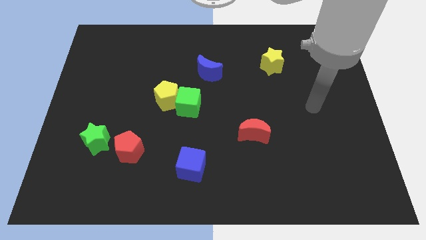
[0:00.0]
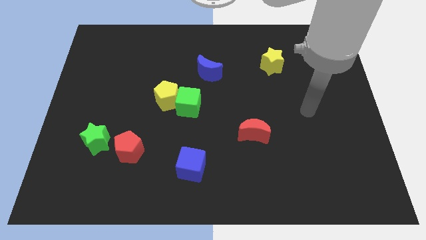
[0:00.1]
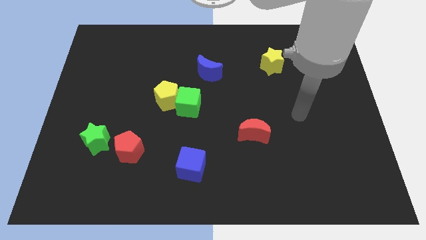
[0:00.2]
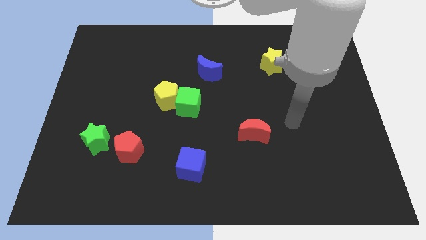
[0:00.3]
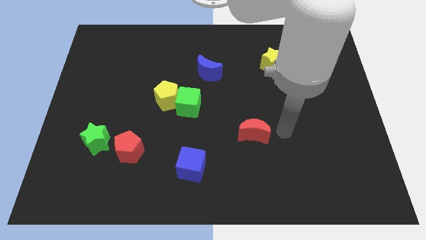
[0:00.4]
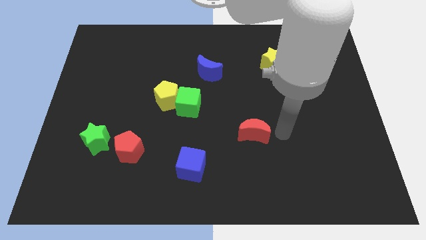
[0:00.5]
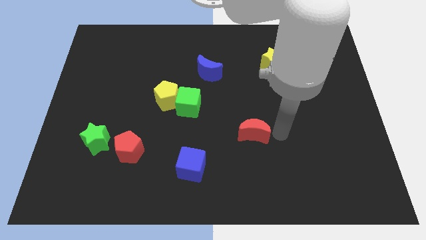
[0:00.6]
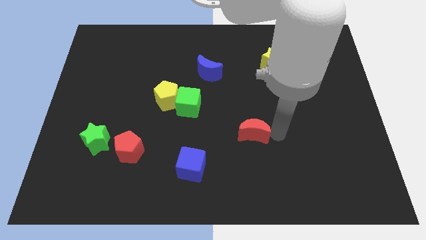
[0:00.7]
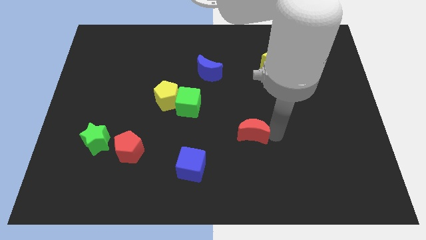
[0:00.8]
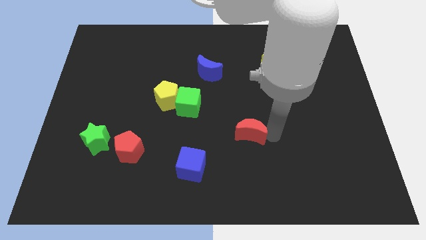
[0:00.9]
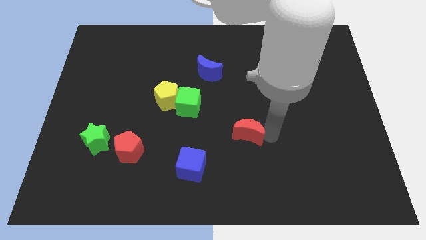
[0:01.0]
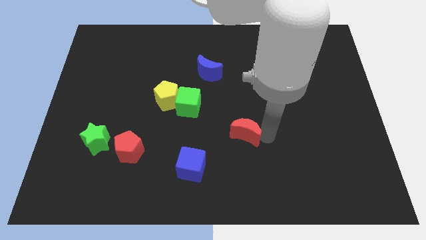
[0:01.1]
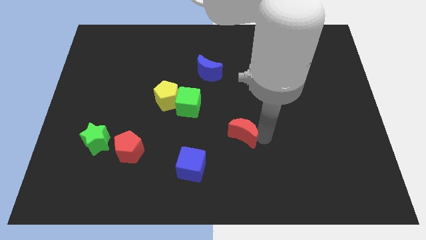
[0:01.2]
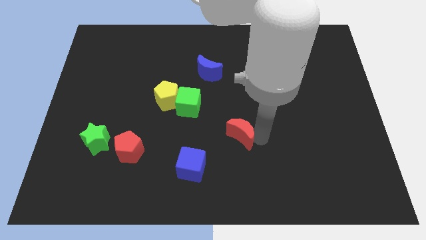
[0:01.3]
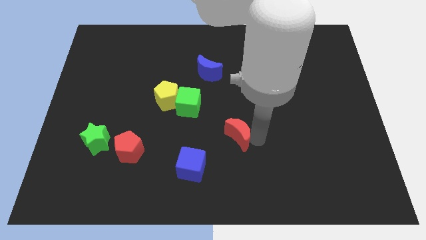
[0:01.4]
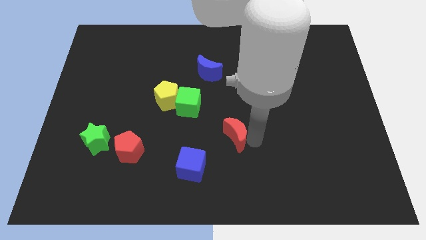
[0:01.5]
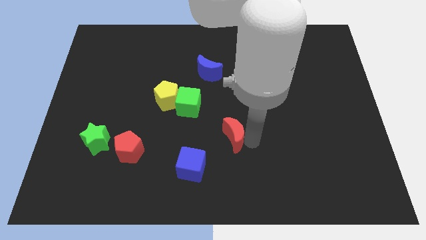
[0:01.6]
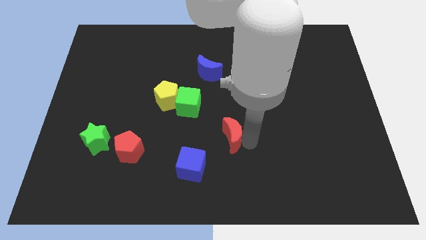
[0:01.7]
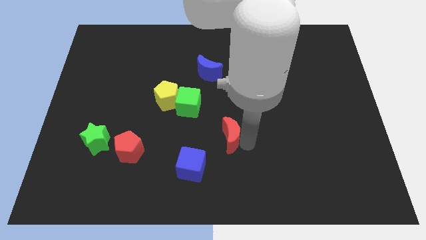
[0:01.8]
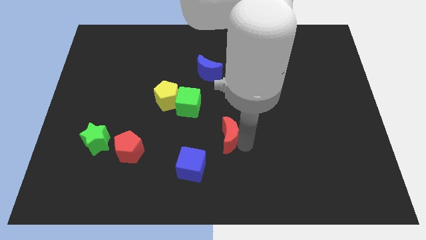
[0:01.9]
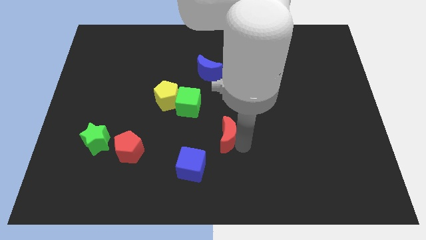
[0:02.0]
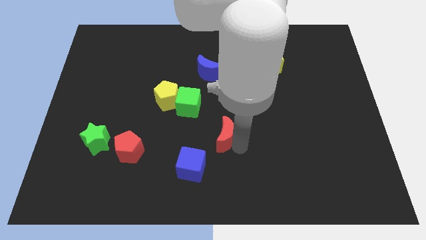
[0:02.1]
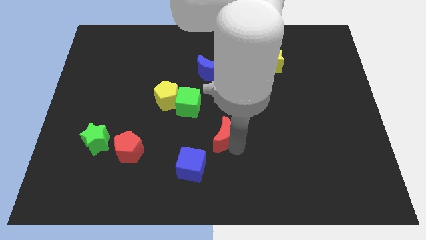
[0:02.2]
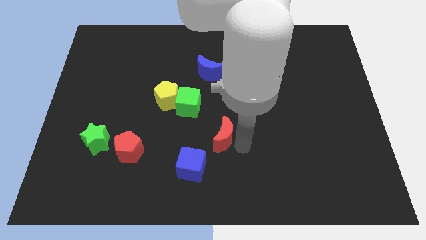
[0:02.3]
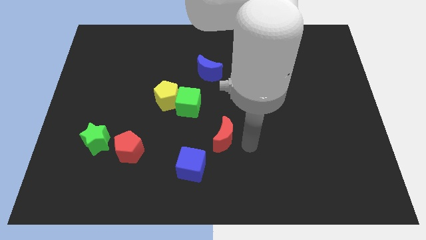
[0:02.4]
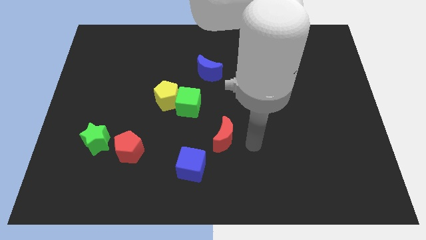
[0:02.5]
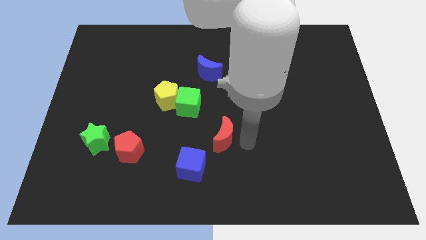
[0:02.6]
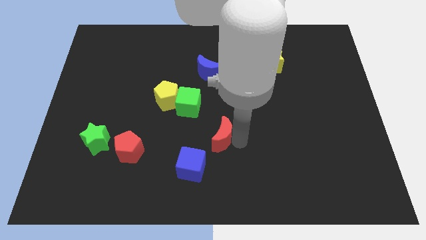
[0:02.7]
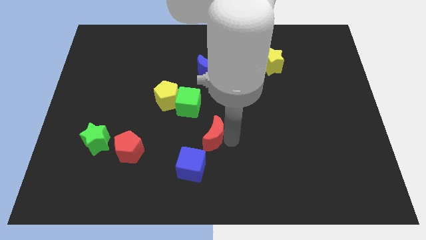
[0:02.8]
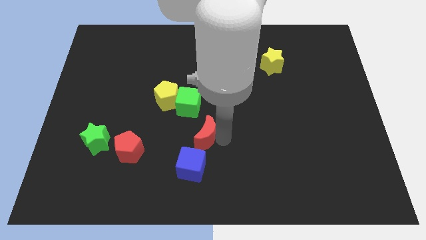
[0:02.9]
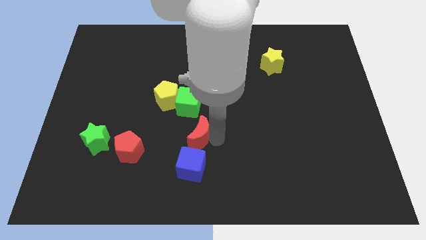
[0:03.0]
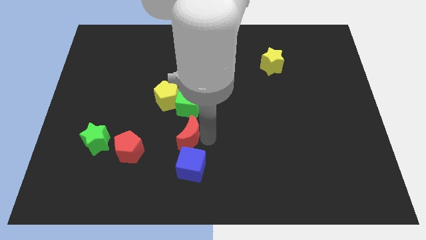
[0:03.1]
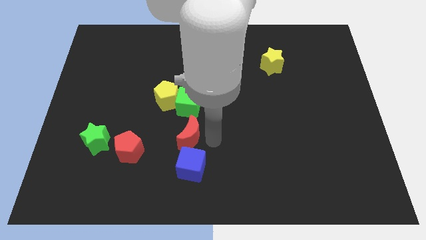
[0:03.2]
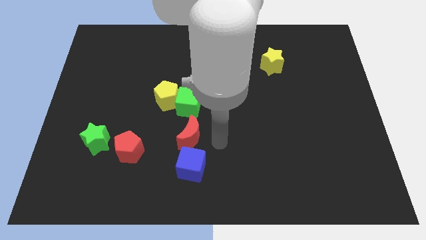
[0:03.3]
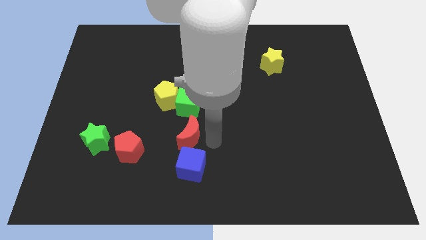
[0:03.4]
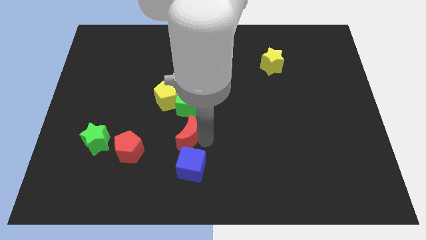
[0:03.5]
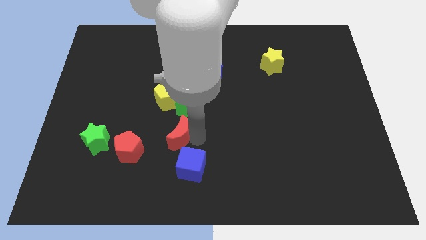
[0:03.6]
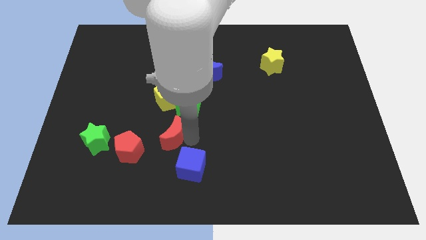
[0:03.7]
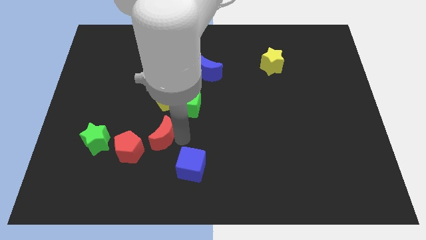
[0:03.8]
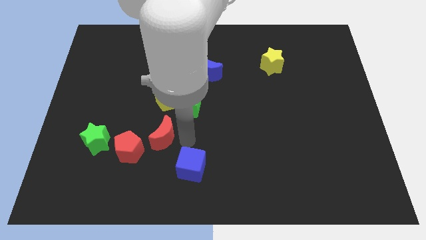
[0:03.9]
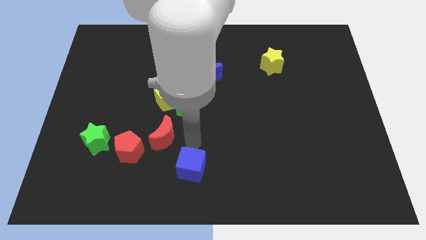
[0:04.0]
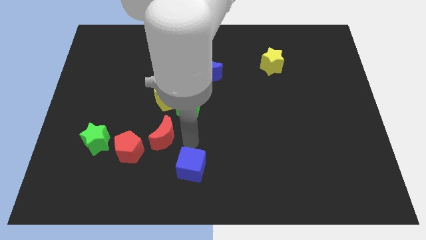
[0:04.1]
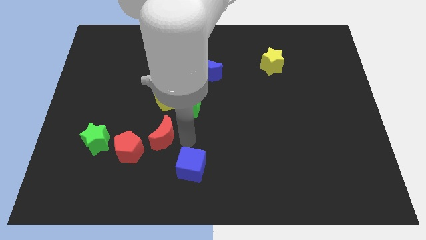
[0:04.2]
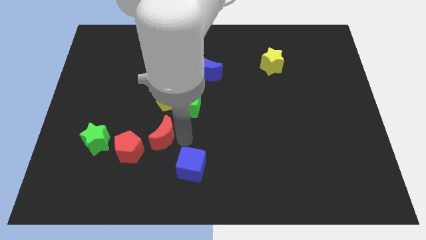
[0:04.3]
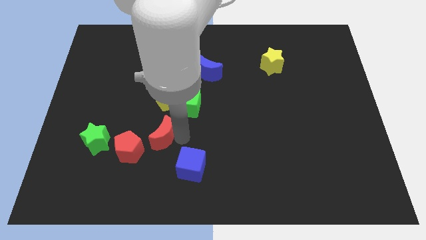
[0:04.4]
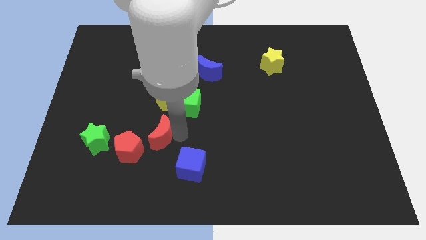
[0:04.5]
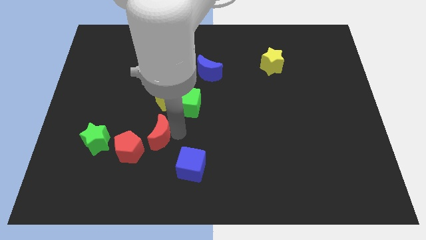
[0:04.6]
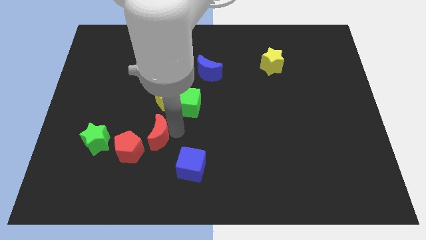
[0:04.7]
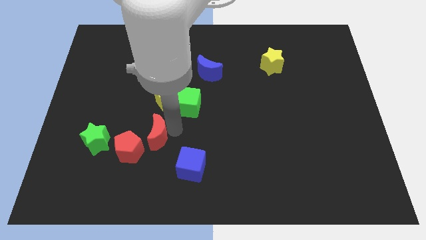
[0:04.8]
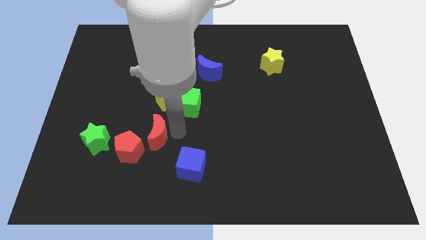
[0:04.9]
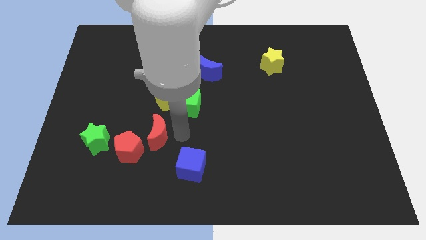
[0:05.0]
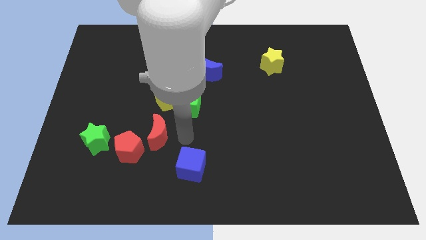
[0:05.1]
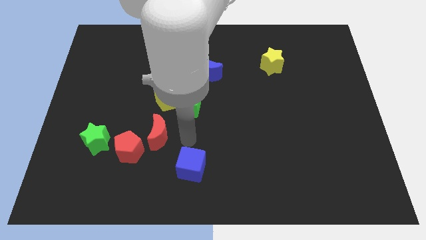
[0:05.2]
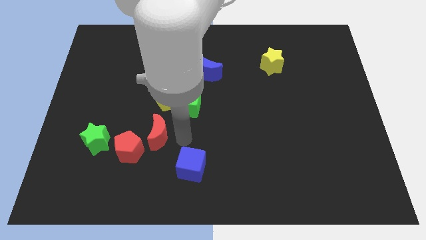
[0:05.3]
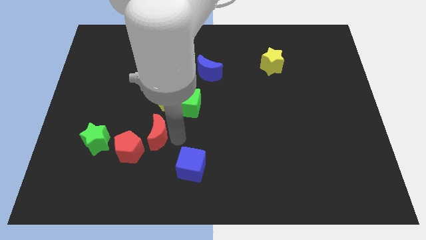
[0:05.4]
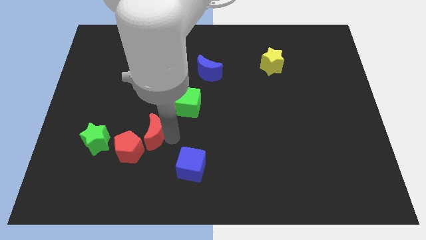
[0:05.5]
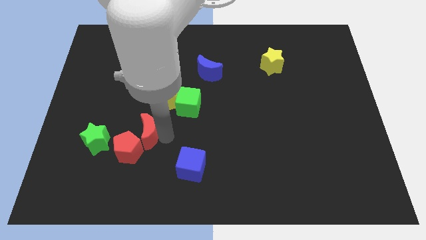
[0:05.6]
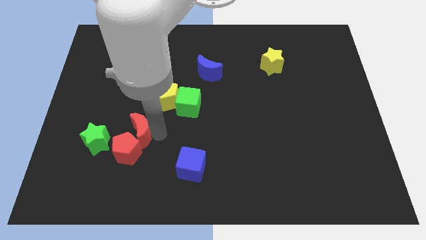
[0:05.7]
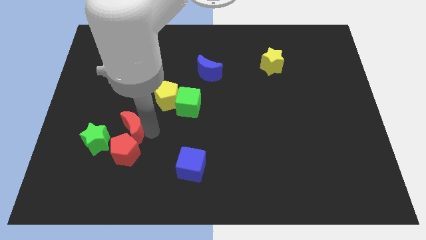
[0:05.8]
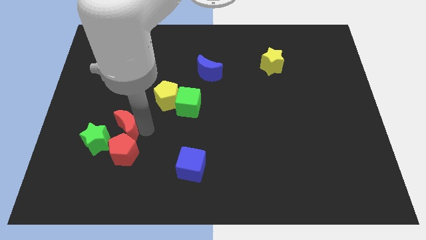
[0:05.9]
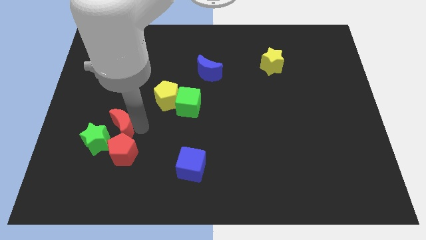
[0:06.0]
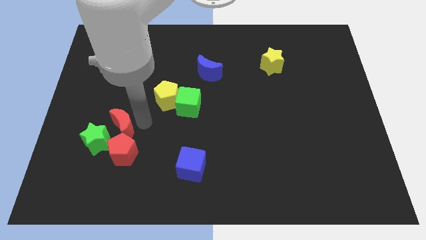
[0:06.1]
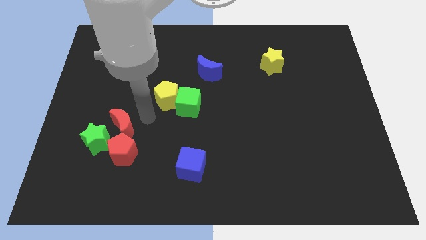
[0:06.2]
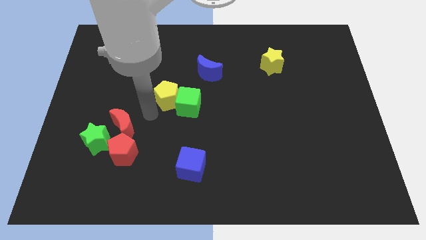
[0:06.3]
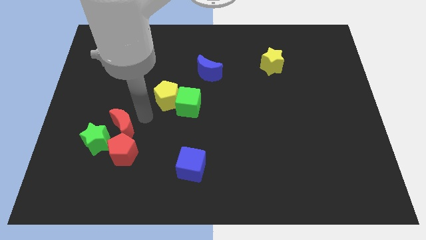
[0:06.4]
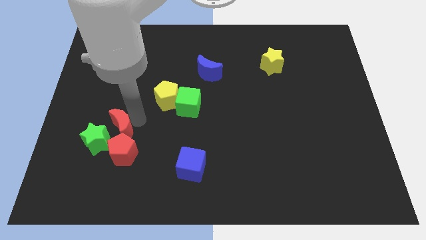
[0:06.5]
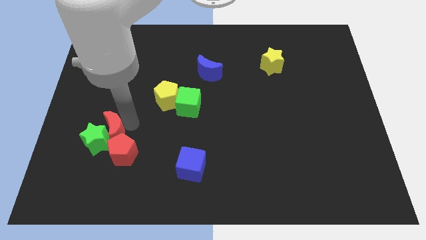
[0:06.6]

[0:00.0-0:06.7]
move the red moon to the green star

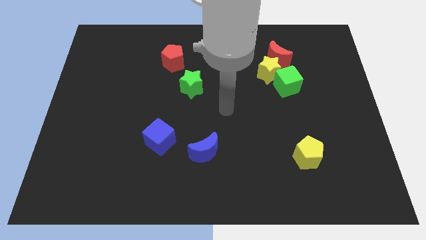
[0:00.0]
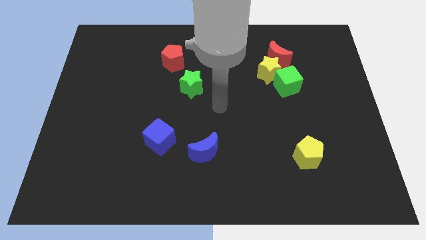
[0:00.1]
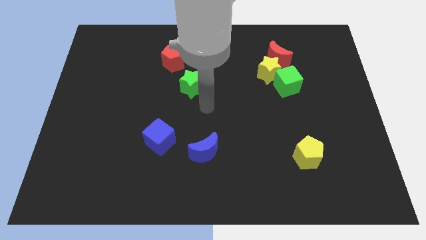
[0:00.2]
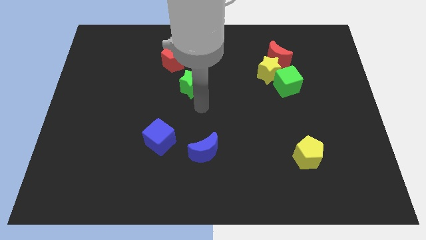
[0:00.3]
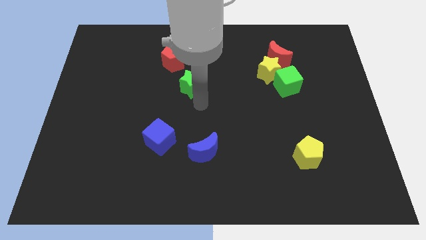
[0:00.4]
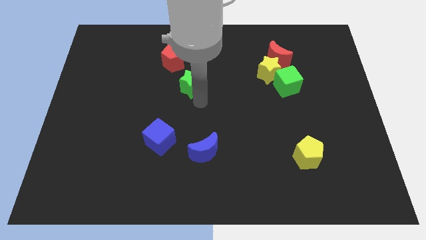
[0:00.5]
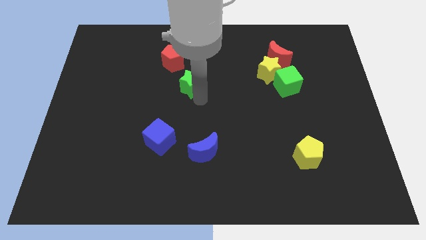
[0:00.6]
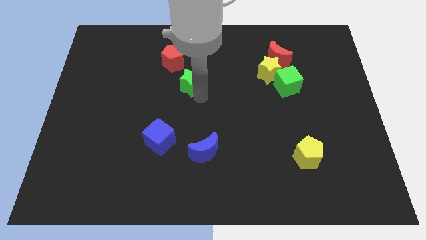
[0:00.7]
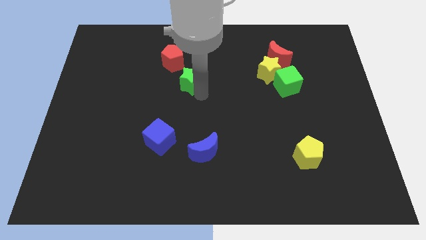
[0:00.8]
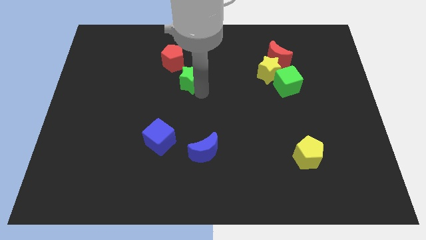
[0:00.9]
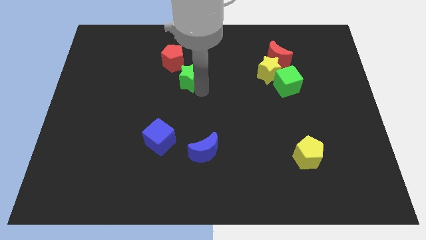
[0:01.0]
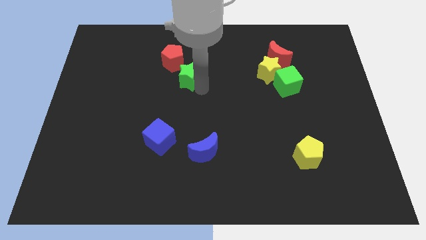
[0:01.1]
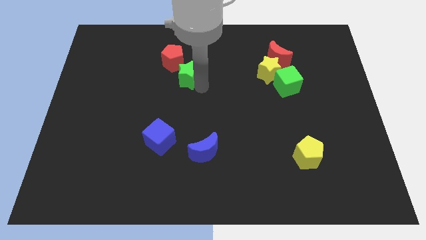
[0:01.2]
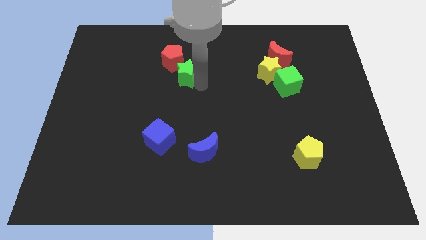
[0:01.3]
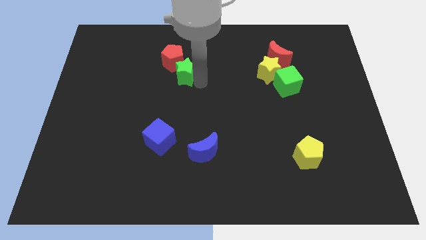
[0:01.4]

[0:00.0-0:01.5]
move the green star towards the red pentagon
